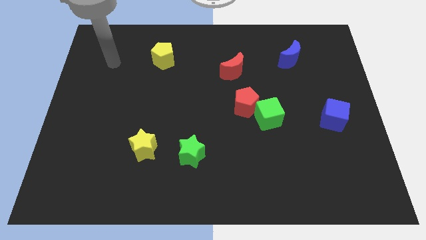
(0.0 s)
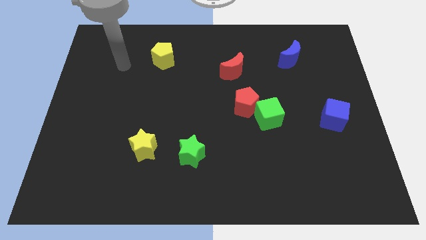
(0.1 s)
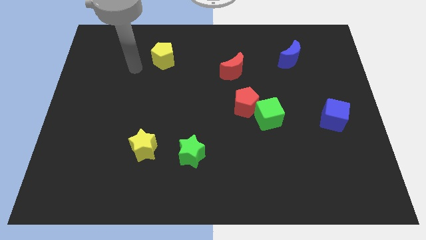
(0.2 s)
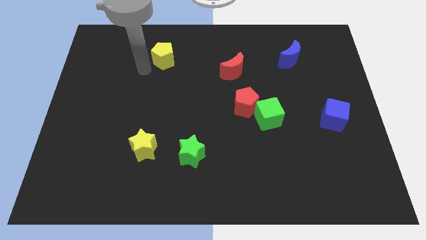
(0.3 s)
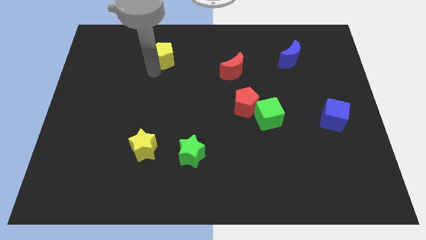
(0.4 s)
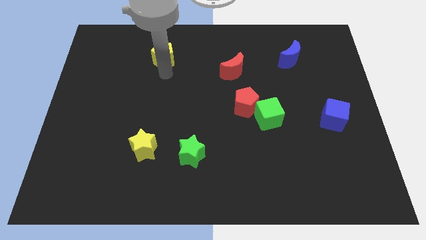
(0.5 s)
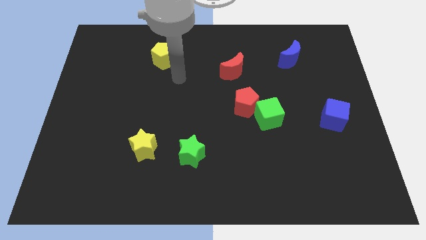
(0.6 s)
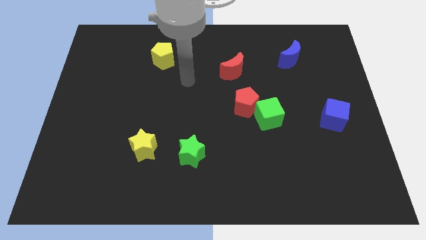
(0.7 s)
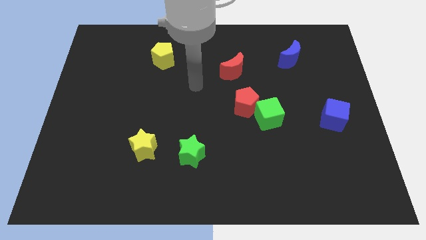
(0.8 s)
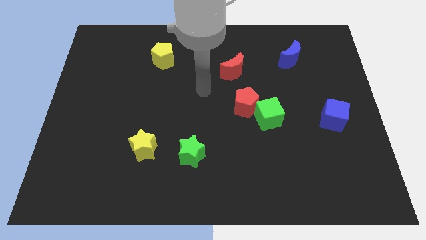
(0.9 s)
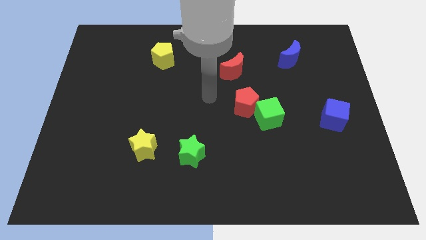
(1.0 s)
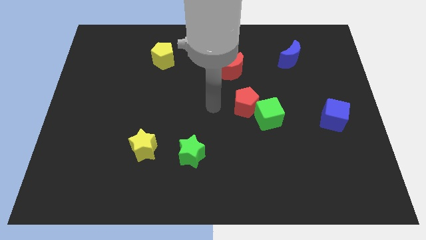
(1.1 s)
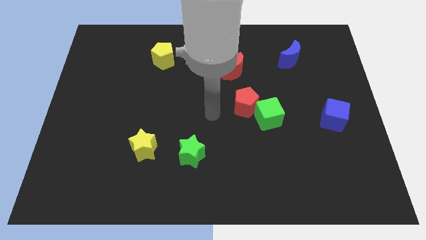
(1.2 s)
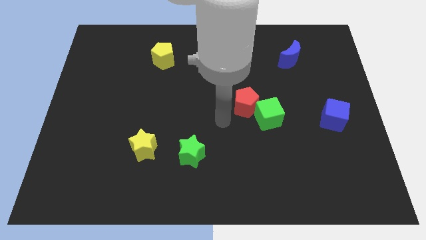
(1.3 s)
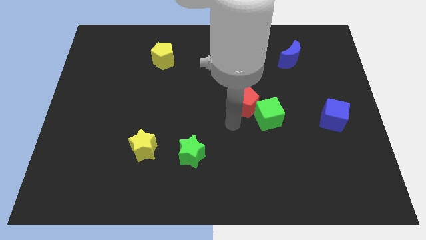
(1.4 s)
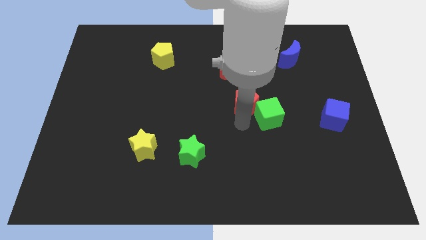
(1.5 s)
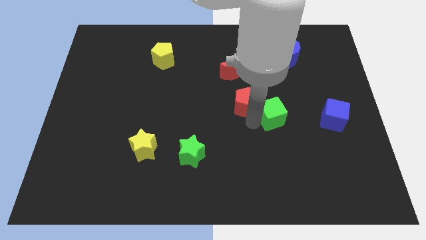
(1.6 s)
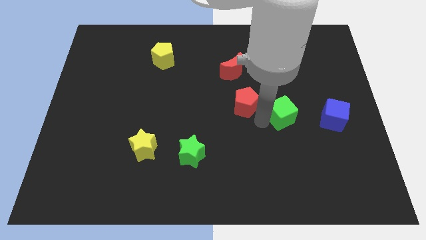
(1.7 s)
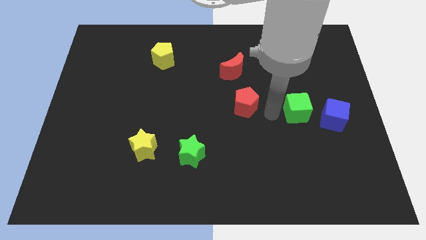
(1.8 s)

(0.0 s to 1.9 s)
separate the red pentagon from the green cube

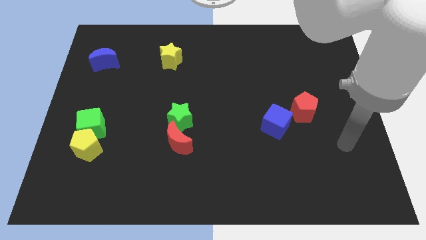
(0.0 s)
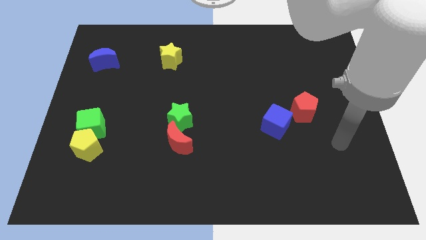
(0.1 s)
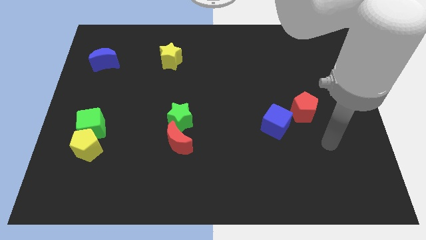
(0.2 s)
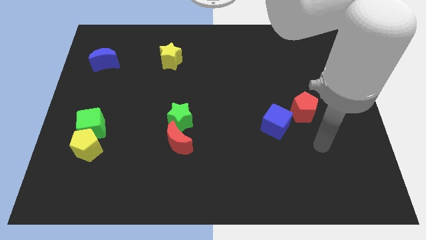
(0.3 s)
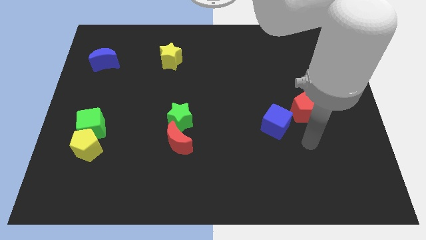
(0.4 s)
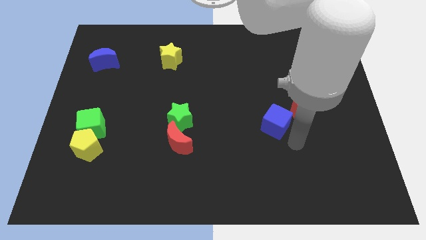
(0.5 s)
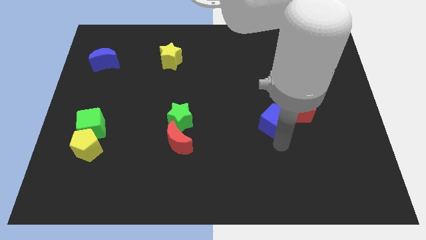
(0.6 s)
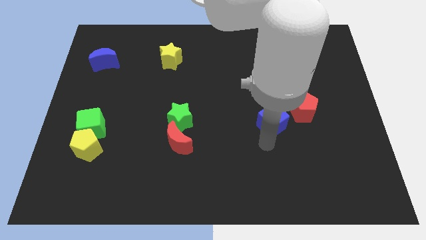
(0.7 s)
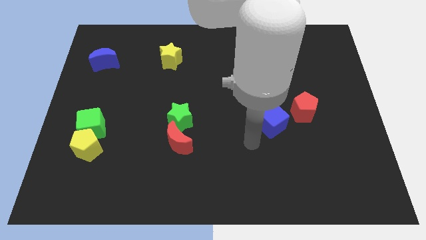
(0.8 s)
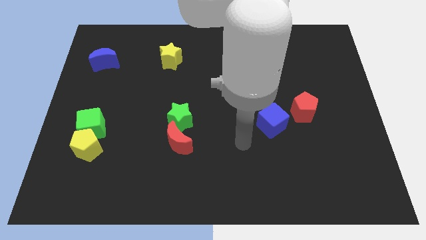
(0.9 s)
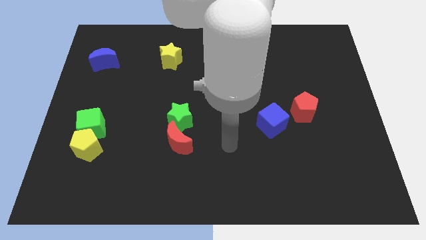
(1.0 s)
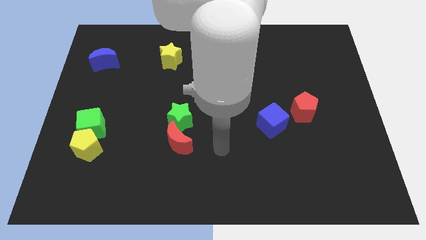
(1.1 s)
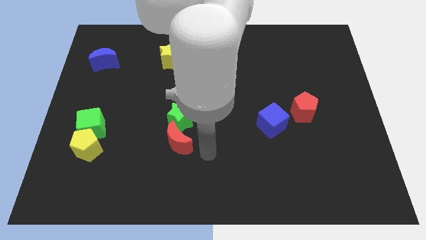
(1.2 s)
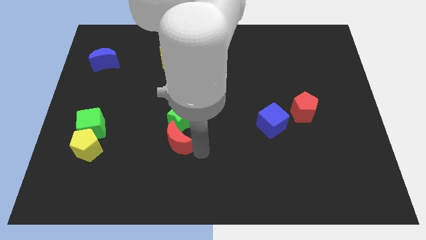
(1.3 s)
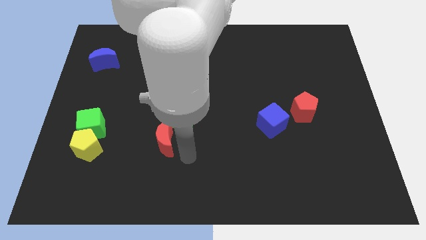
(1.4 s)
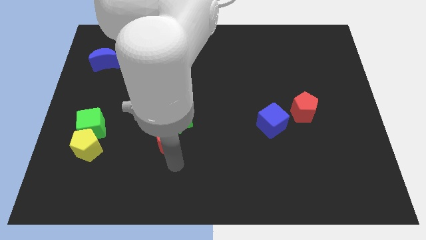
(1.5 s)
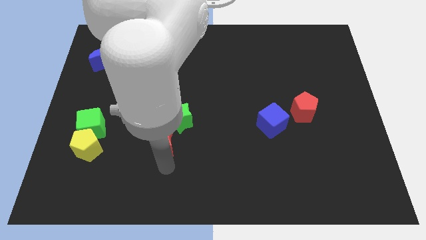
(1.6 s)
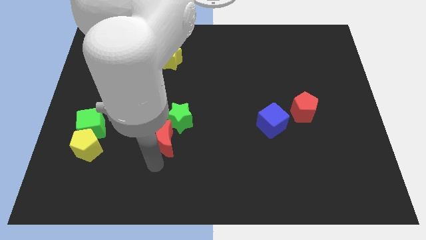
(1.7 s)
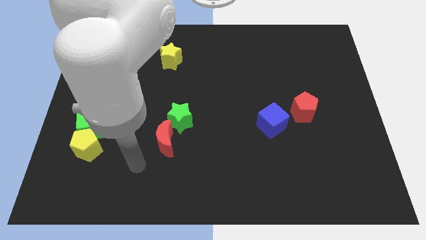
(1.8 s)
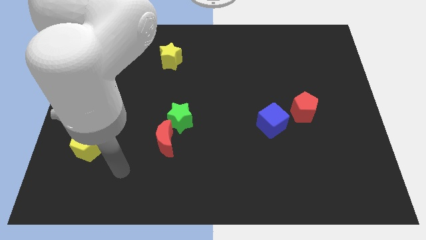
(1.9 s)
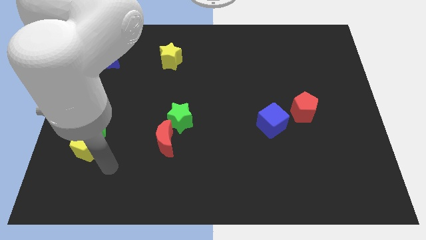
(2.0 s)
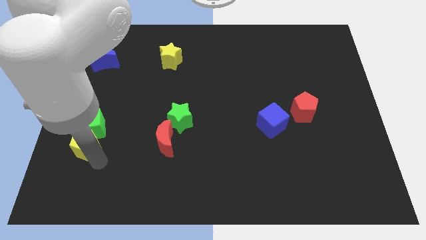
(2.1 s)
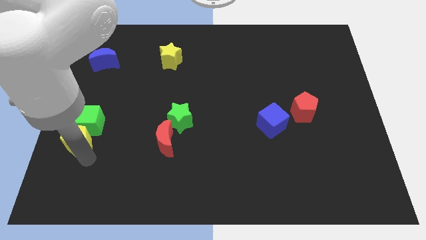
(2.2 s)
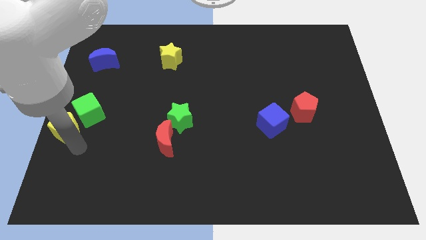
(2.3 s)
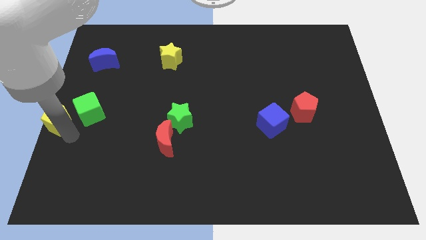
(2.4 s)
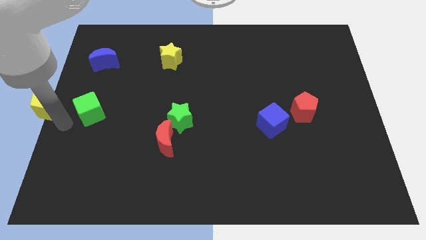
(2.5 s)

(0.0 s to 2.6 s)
move the green cube away from the yellow pentagon

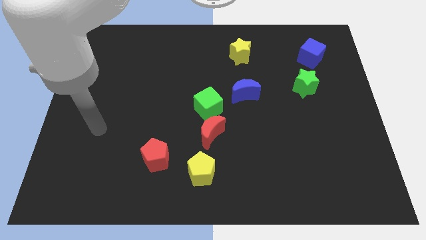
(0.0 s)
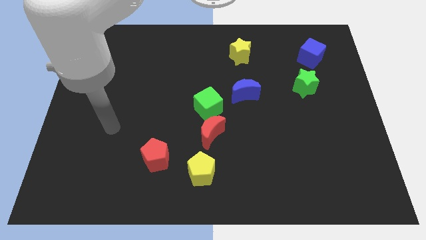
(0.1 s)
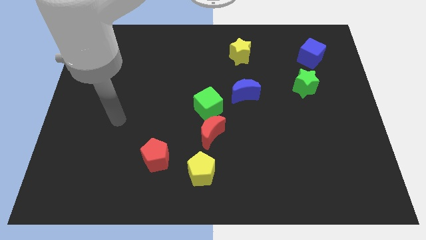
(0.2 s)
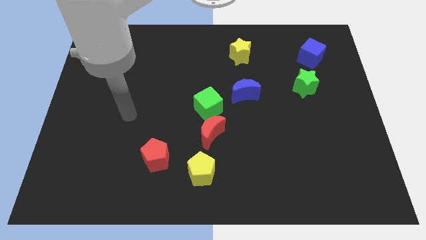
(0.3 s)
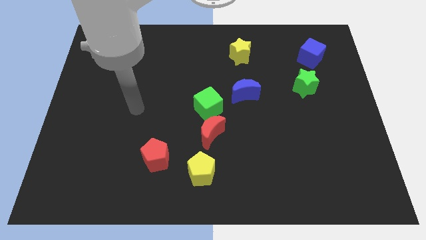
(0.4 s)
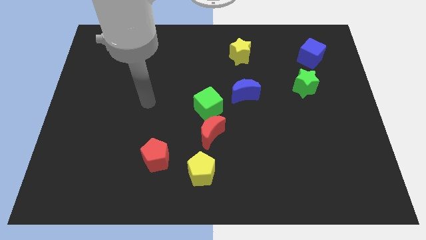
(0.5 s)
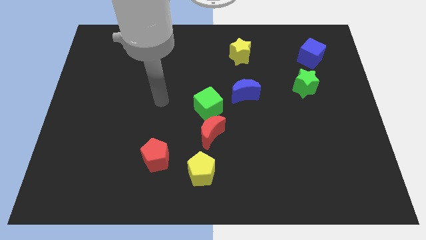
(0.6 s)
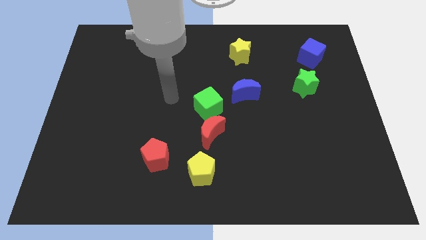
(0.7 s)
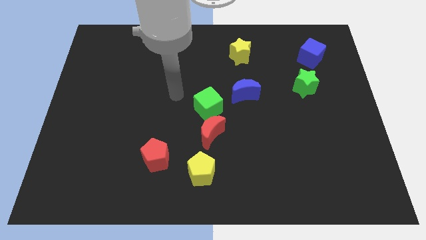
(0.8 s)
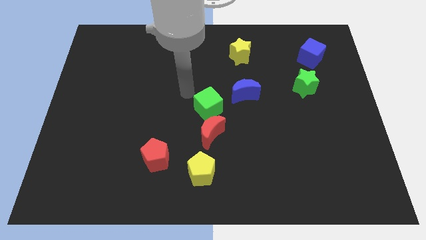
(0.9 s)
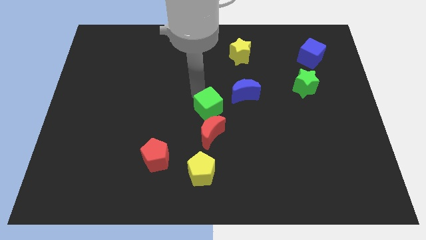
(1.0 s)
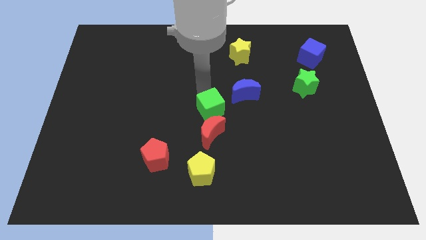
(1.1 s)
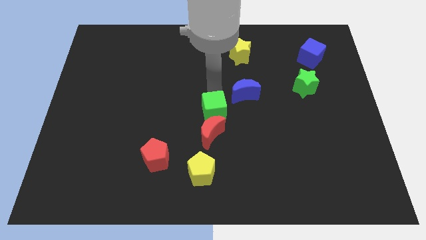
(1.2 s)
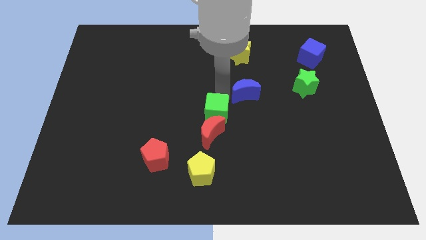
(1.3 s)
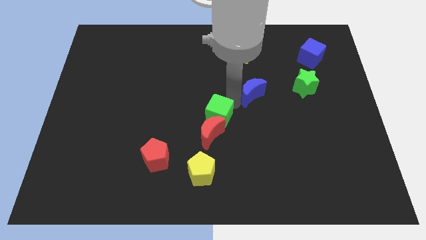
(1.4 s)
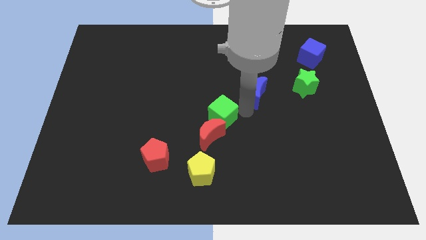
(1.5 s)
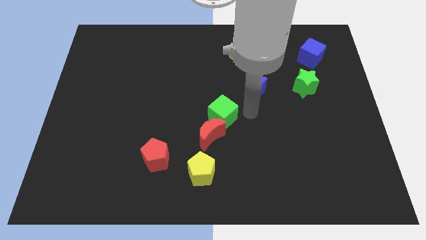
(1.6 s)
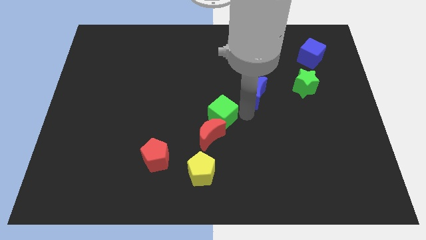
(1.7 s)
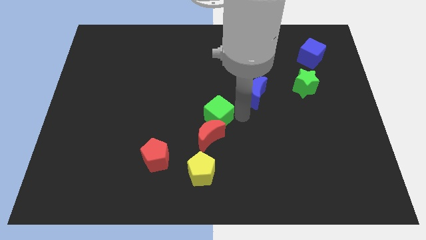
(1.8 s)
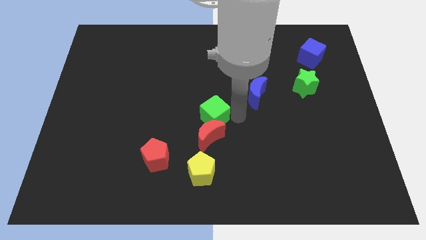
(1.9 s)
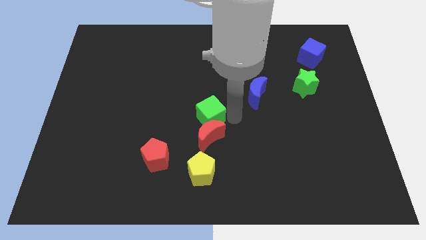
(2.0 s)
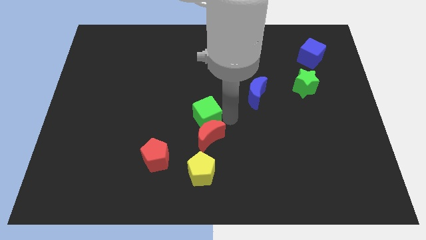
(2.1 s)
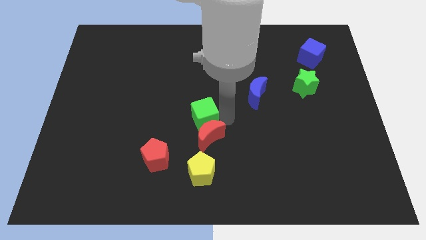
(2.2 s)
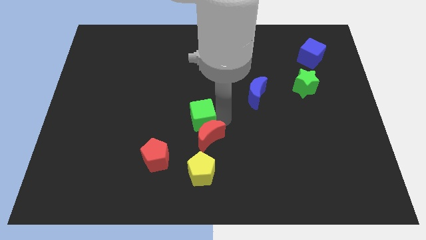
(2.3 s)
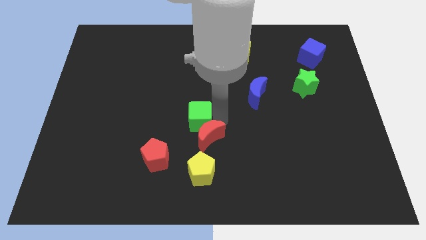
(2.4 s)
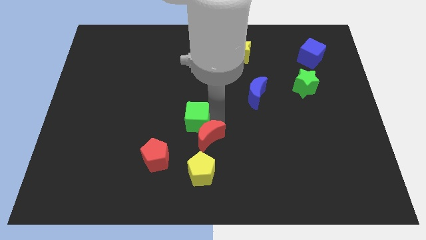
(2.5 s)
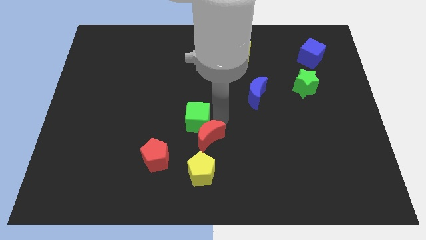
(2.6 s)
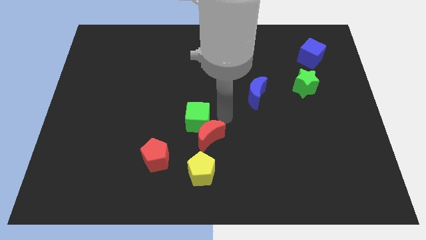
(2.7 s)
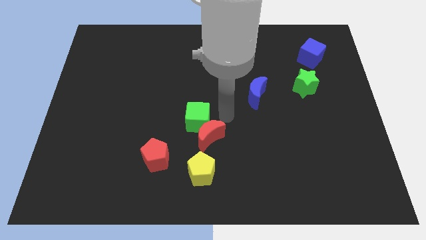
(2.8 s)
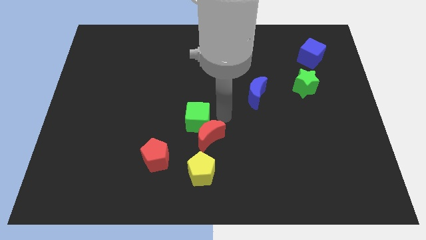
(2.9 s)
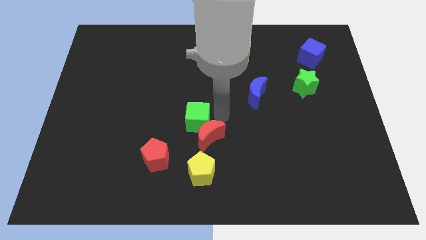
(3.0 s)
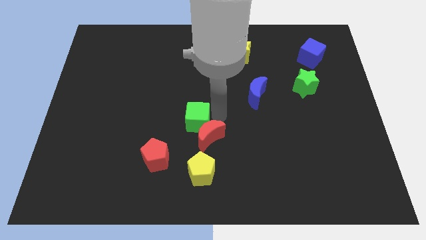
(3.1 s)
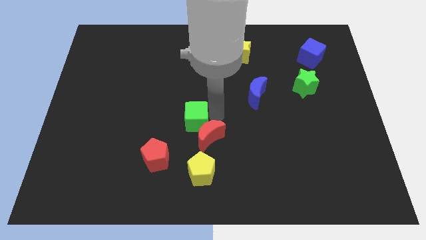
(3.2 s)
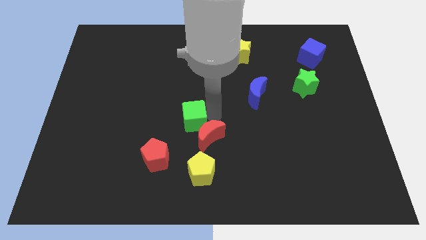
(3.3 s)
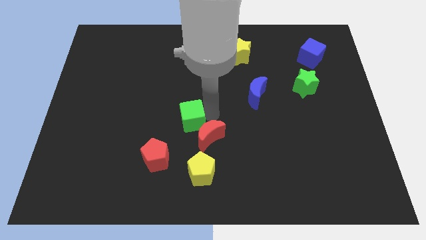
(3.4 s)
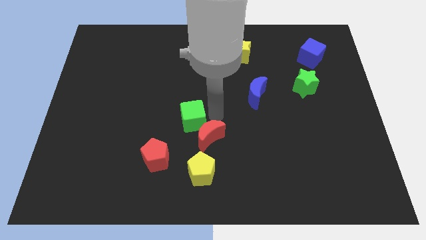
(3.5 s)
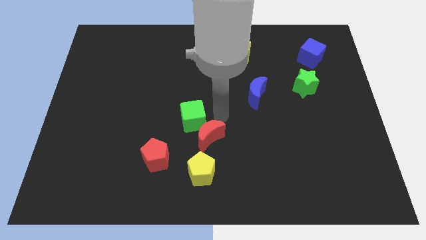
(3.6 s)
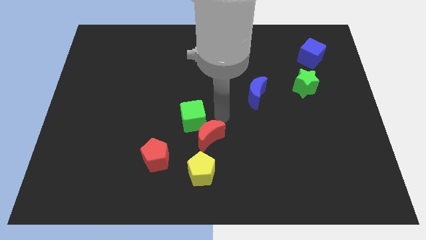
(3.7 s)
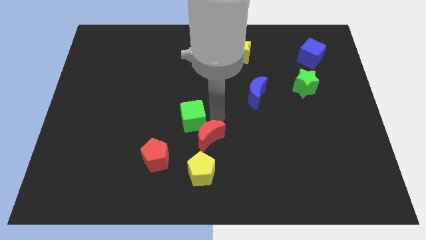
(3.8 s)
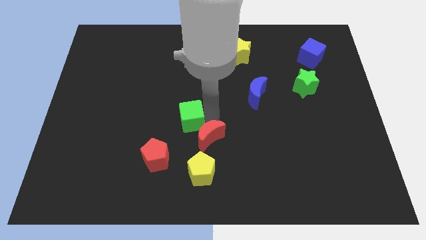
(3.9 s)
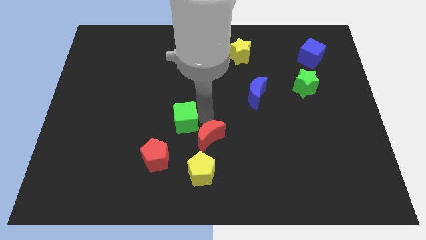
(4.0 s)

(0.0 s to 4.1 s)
move the green cube away from the red moon and blue moon

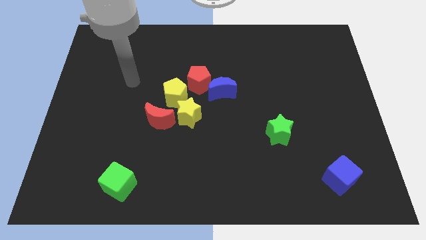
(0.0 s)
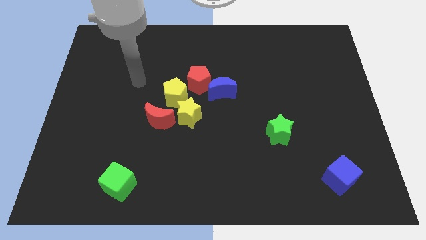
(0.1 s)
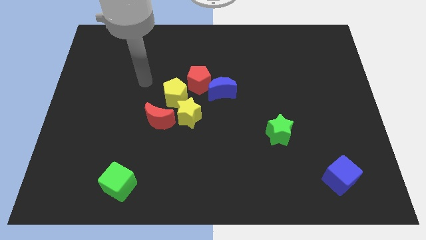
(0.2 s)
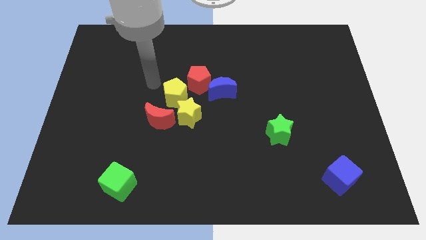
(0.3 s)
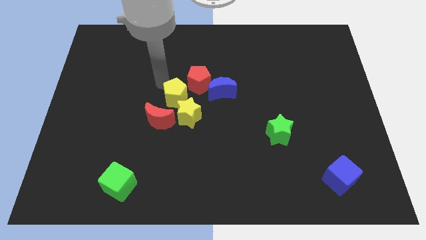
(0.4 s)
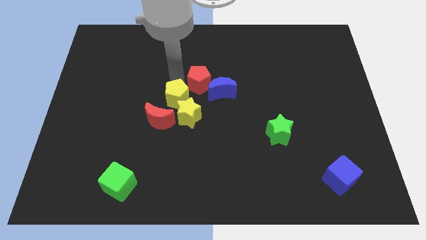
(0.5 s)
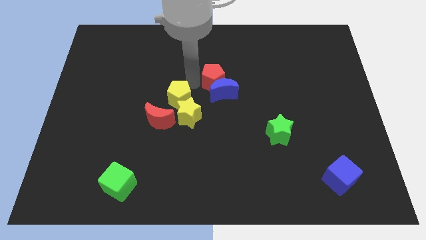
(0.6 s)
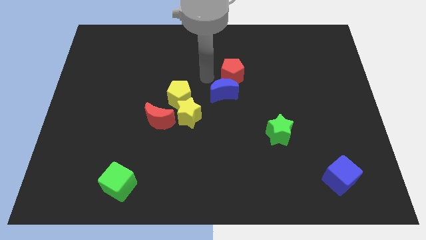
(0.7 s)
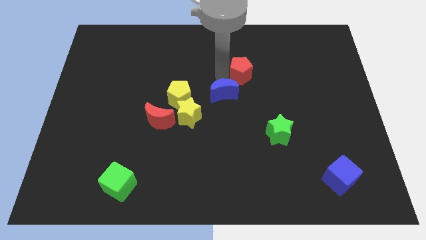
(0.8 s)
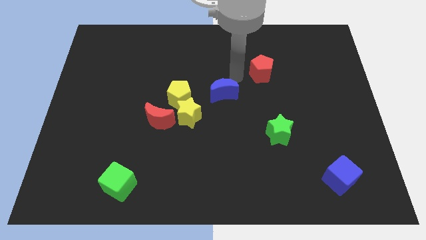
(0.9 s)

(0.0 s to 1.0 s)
move the blue moon away from the red pentagon
